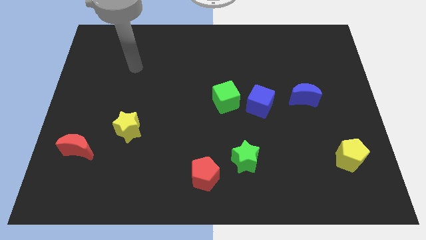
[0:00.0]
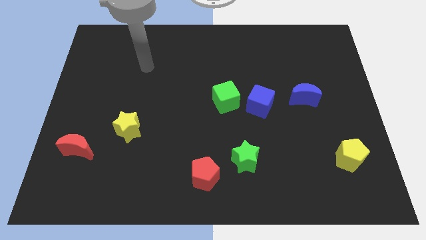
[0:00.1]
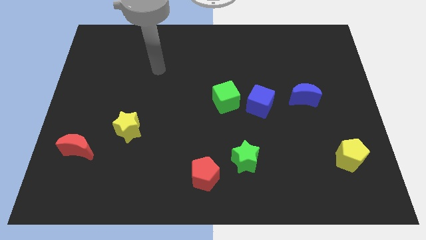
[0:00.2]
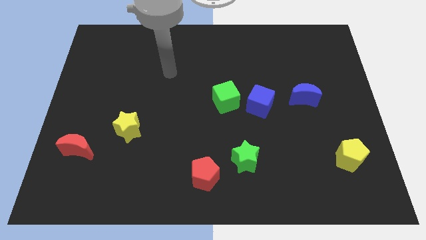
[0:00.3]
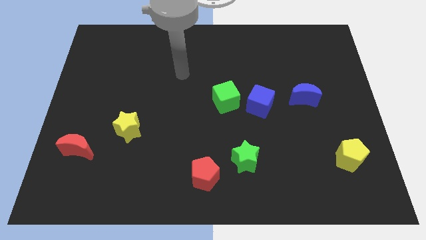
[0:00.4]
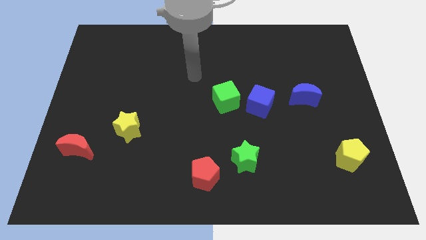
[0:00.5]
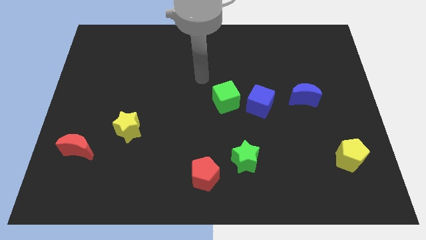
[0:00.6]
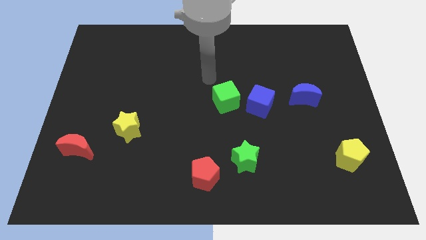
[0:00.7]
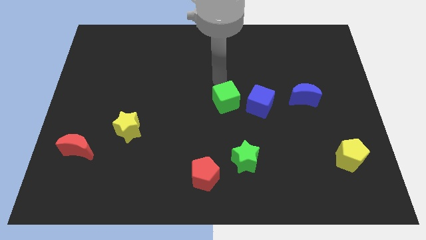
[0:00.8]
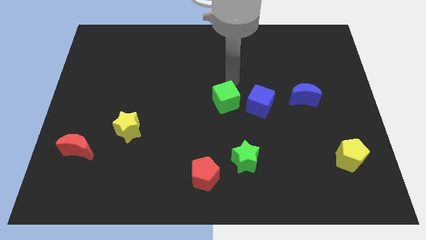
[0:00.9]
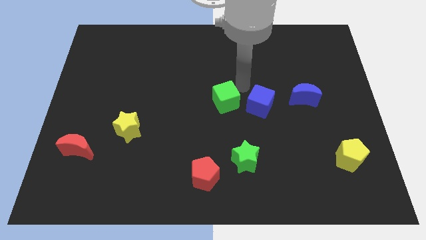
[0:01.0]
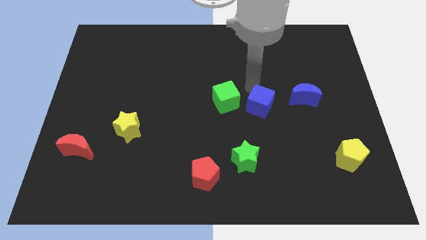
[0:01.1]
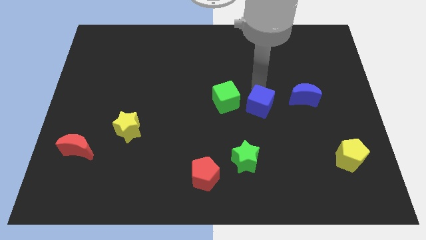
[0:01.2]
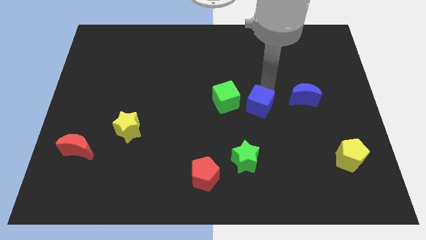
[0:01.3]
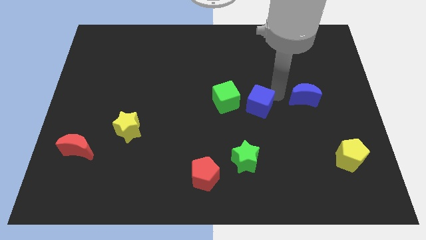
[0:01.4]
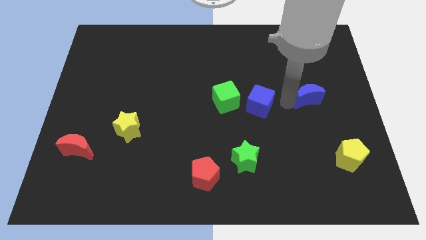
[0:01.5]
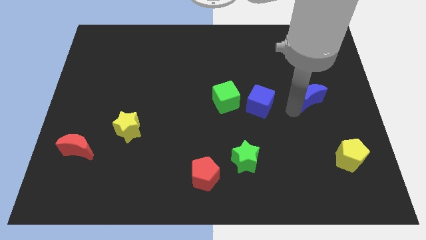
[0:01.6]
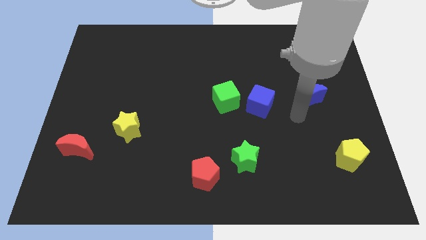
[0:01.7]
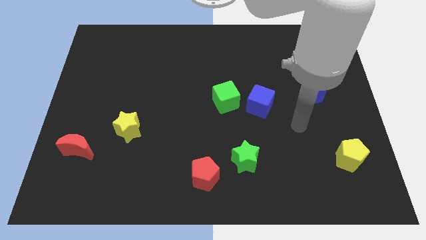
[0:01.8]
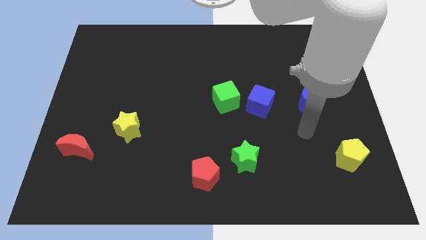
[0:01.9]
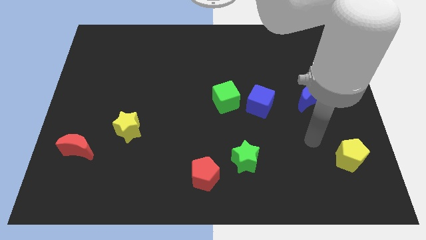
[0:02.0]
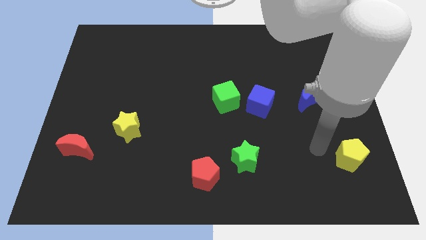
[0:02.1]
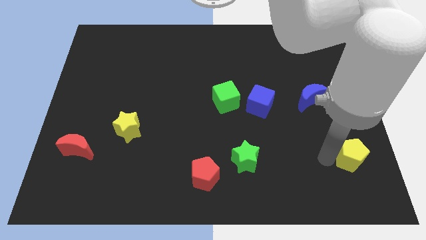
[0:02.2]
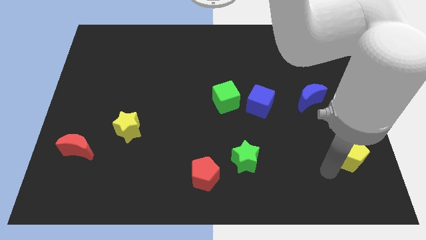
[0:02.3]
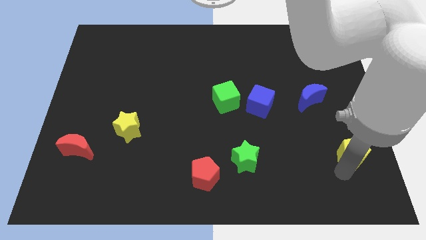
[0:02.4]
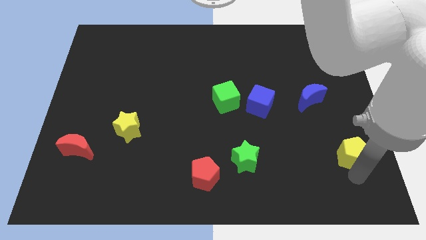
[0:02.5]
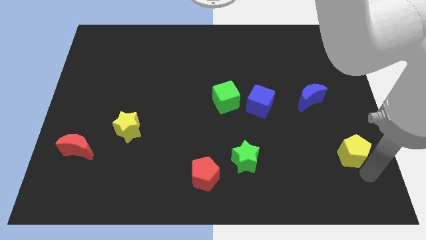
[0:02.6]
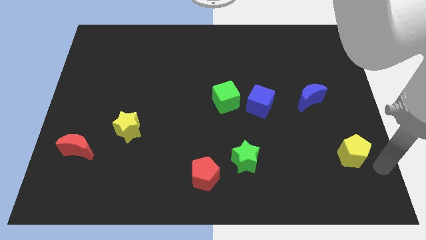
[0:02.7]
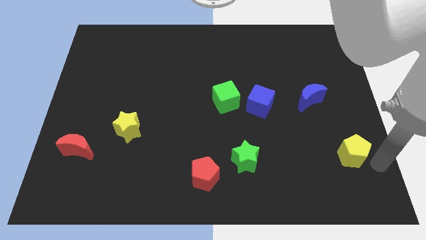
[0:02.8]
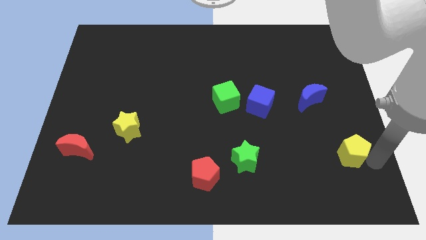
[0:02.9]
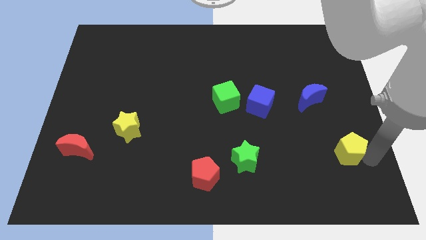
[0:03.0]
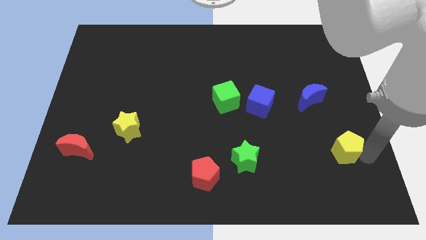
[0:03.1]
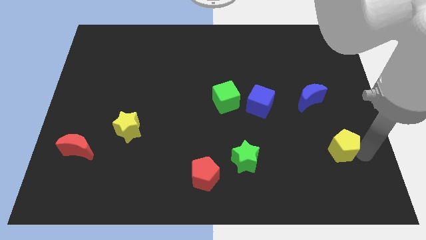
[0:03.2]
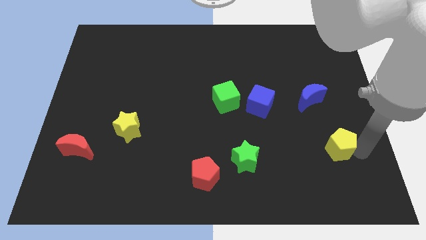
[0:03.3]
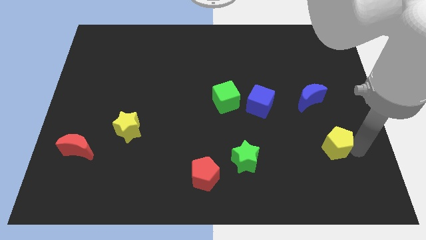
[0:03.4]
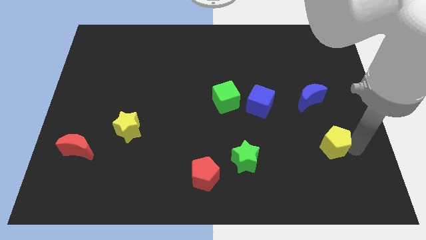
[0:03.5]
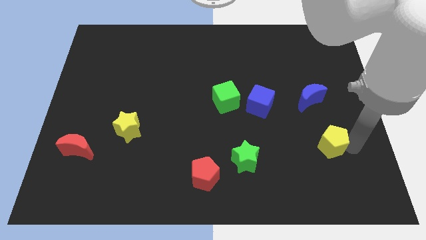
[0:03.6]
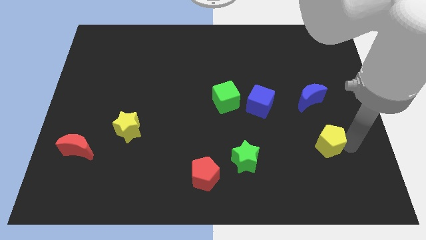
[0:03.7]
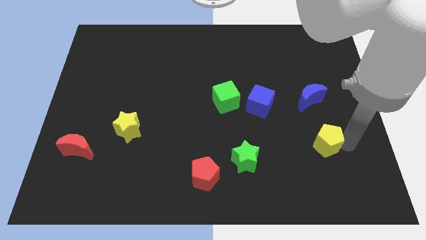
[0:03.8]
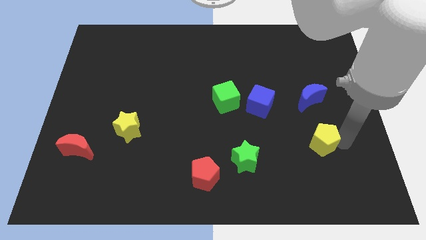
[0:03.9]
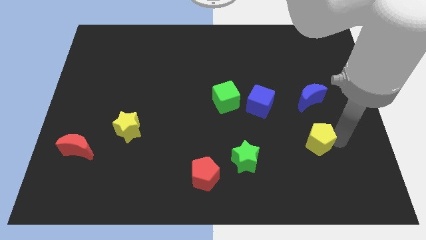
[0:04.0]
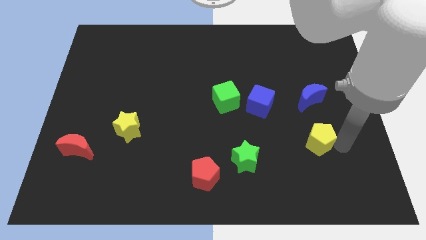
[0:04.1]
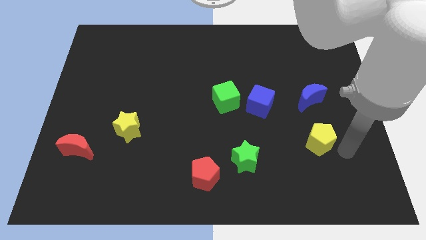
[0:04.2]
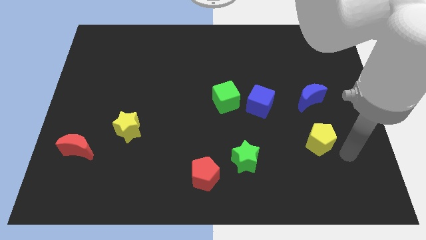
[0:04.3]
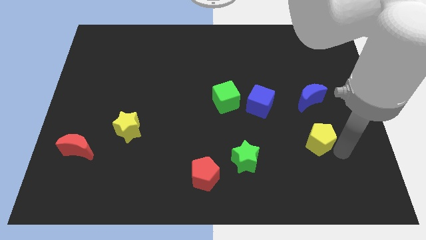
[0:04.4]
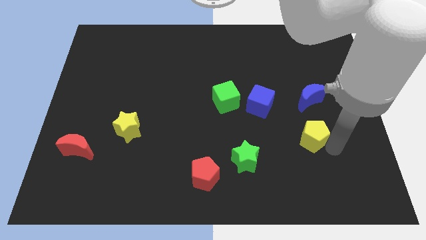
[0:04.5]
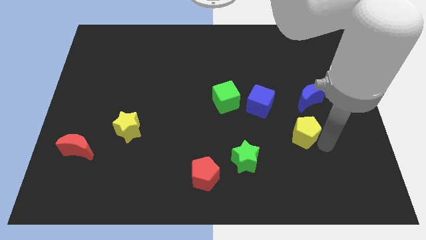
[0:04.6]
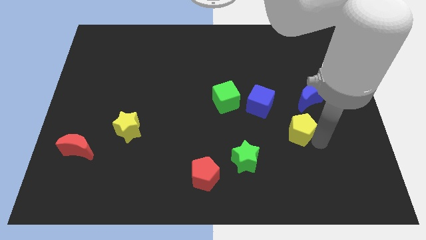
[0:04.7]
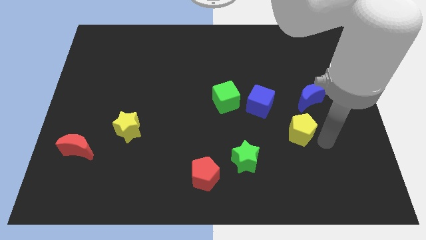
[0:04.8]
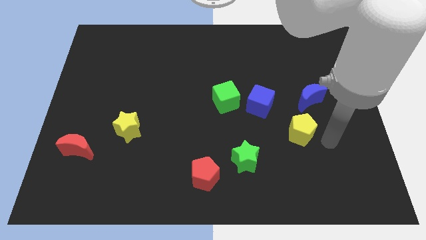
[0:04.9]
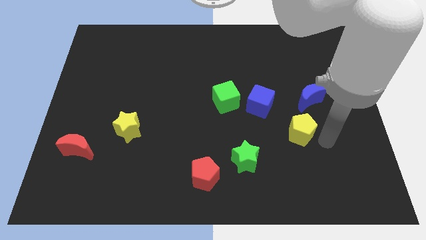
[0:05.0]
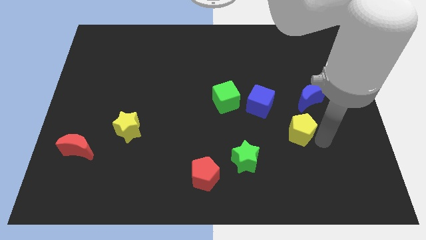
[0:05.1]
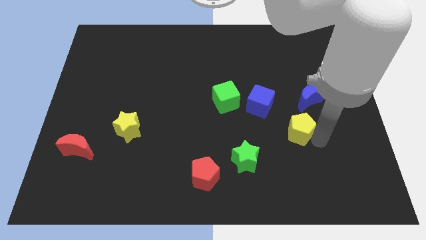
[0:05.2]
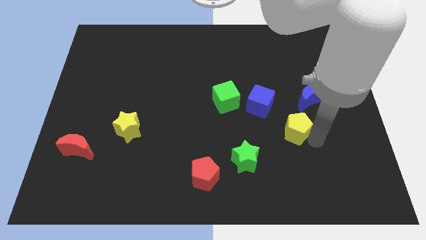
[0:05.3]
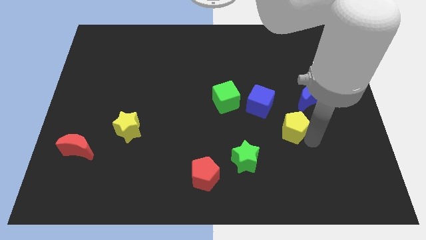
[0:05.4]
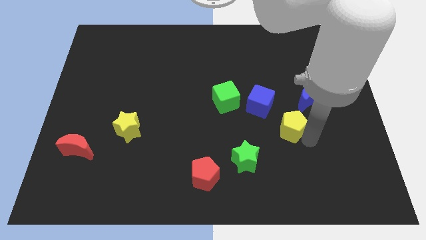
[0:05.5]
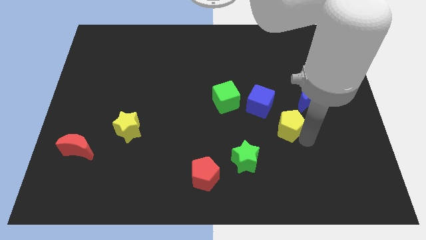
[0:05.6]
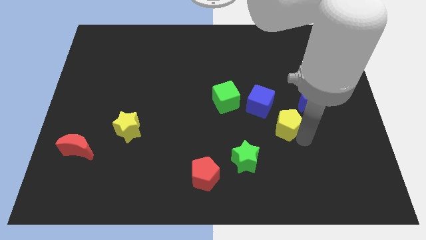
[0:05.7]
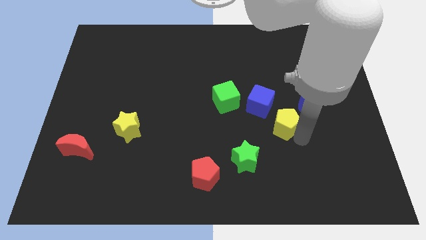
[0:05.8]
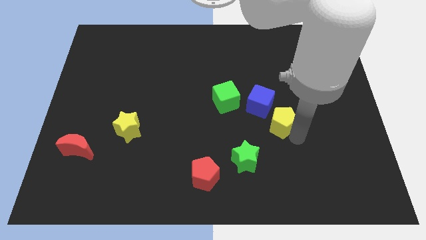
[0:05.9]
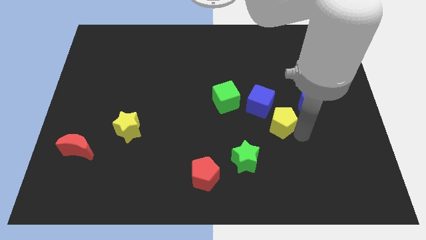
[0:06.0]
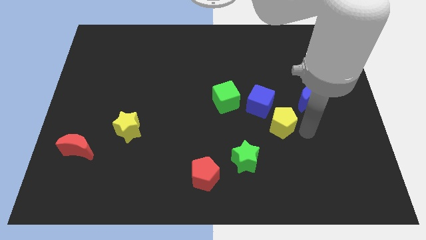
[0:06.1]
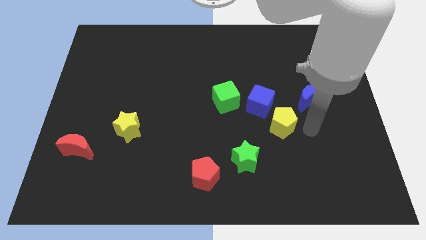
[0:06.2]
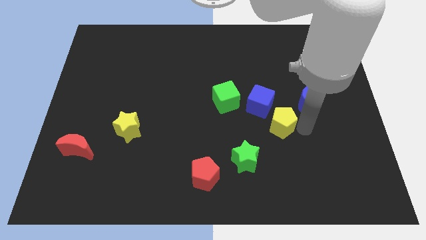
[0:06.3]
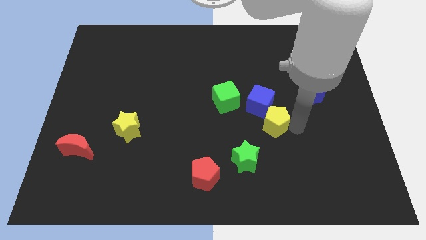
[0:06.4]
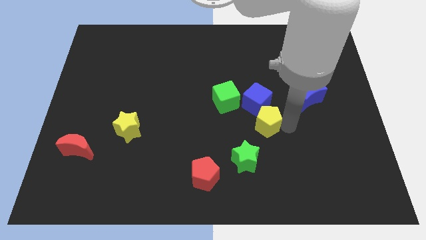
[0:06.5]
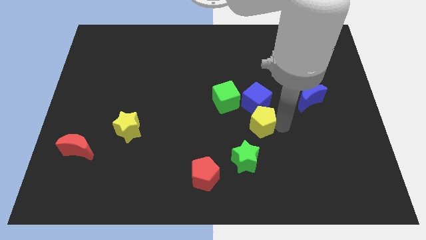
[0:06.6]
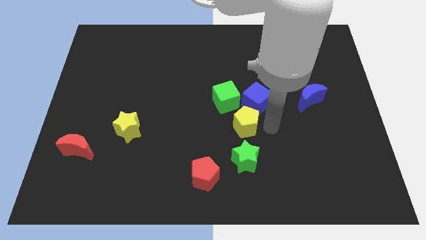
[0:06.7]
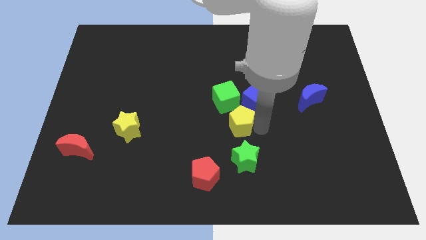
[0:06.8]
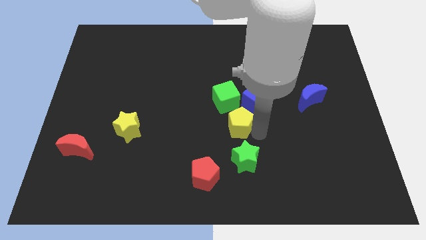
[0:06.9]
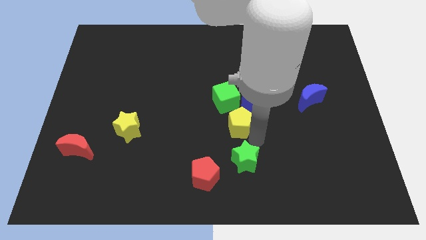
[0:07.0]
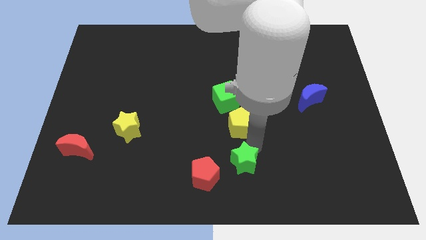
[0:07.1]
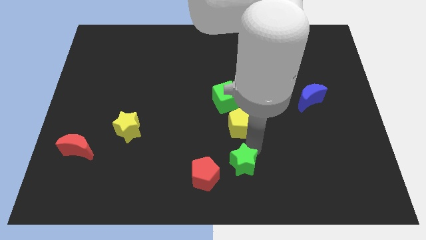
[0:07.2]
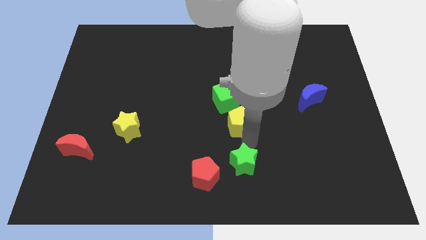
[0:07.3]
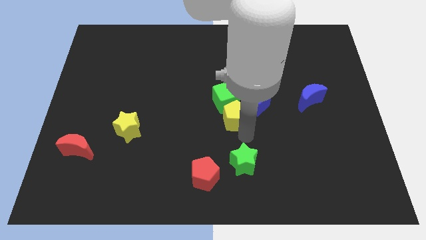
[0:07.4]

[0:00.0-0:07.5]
put the yellow pentagon to the green cube
